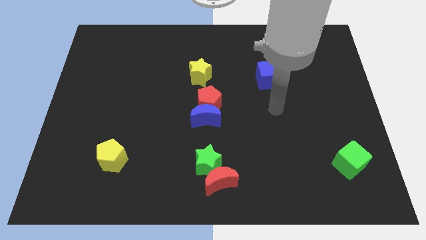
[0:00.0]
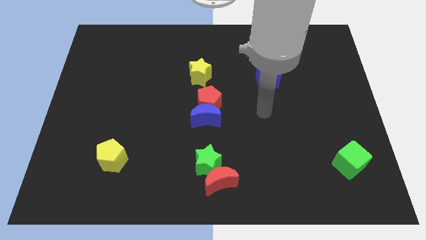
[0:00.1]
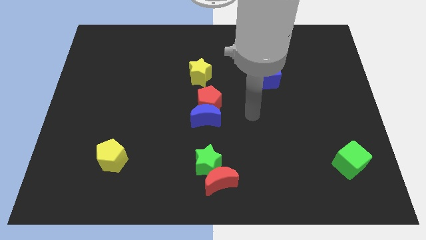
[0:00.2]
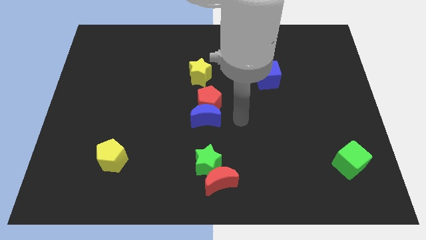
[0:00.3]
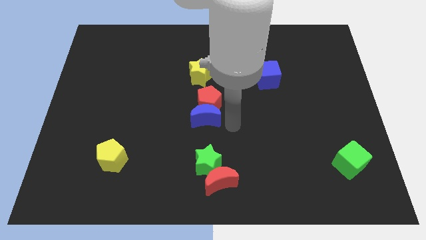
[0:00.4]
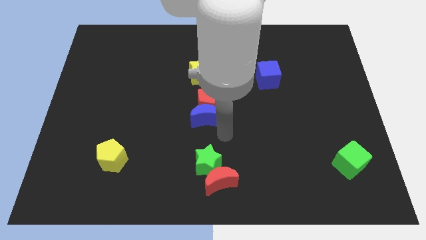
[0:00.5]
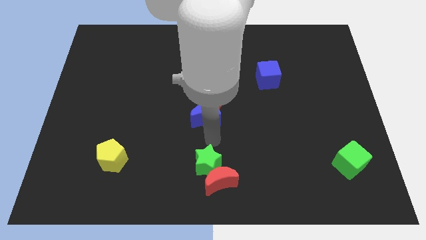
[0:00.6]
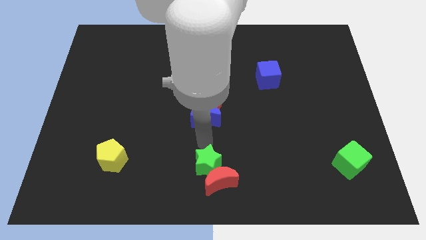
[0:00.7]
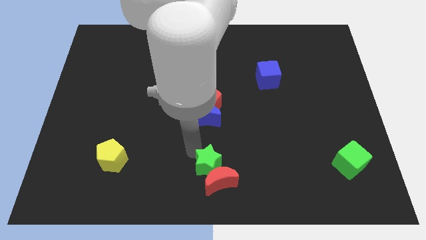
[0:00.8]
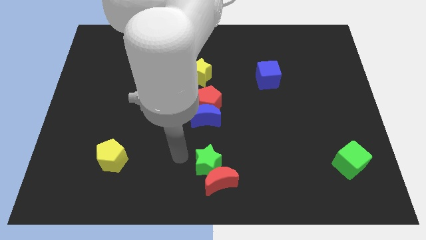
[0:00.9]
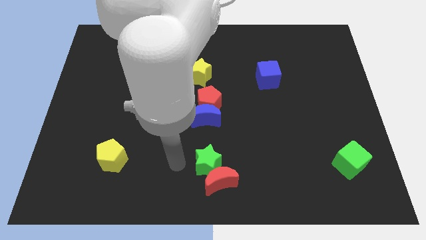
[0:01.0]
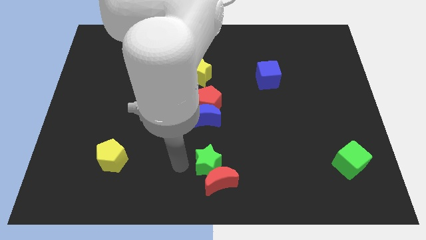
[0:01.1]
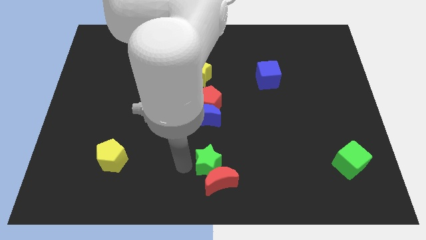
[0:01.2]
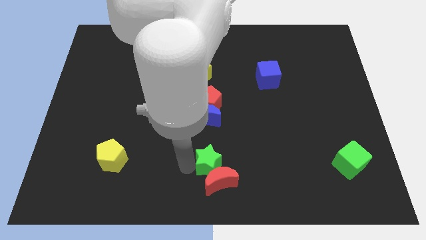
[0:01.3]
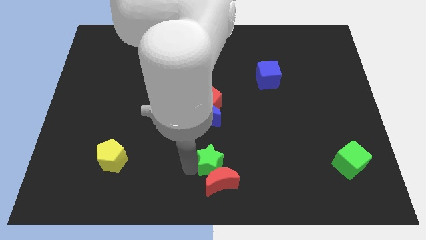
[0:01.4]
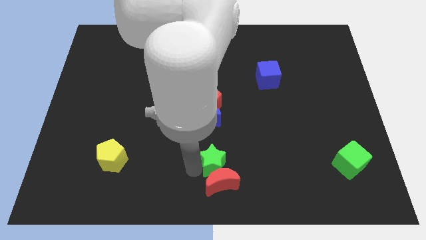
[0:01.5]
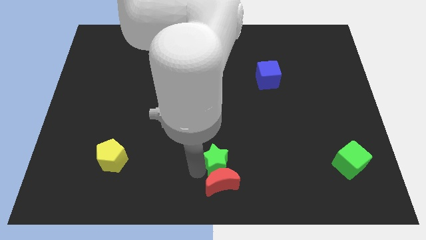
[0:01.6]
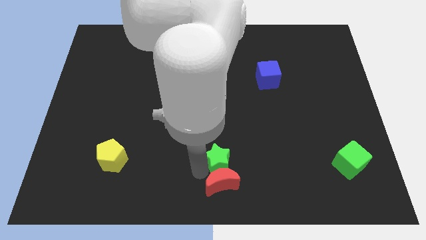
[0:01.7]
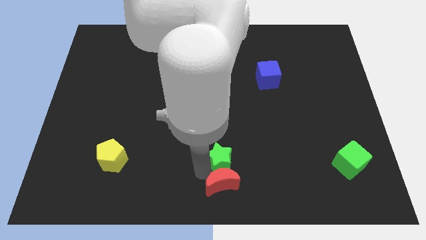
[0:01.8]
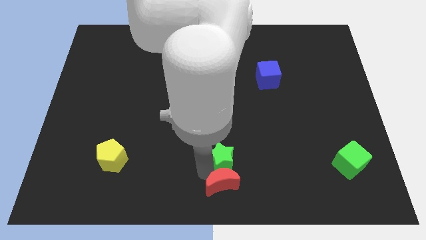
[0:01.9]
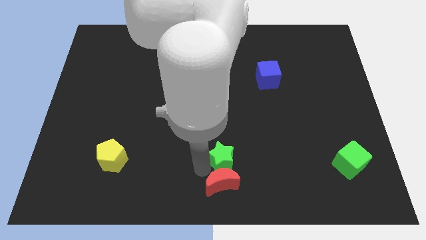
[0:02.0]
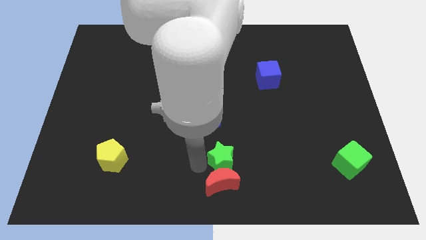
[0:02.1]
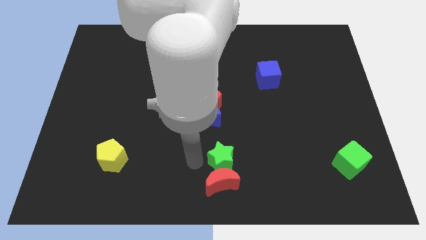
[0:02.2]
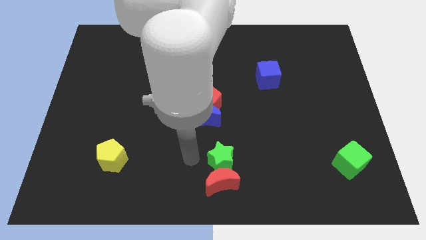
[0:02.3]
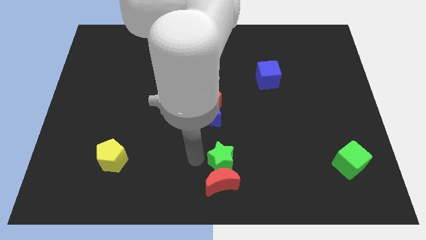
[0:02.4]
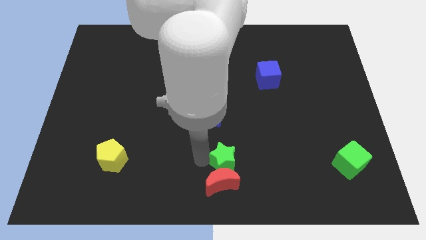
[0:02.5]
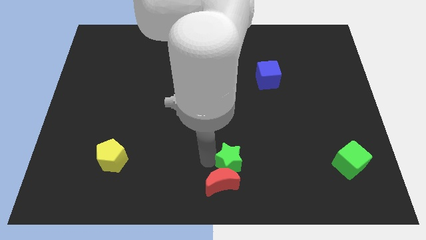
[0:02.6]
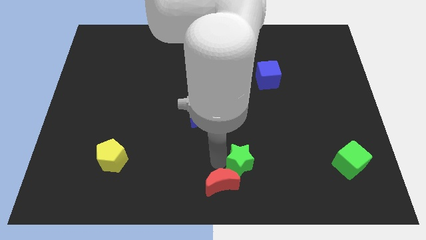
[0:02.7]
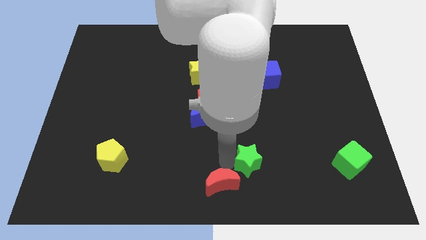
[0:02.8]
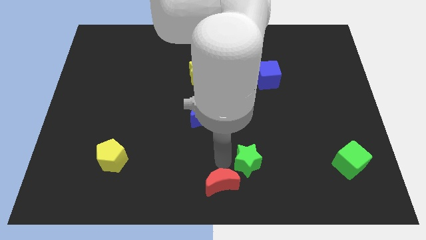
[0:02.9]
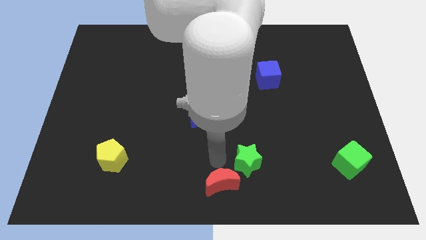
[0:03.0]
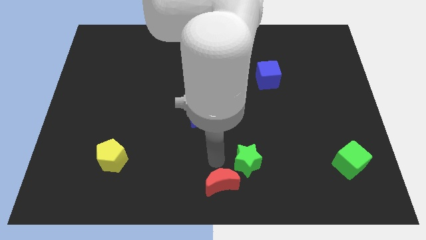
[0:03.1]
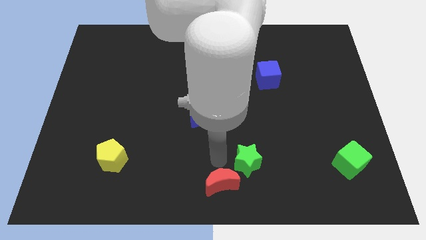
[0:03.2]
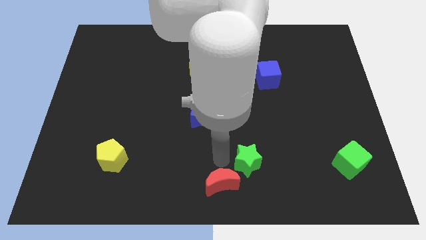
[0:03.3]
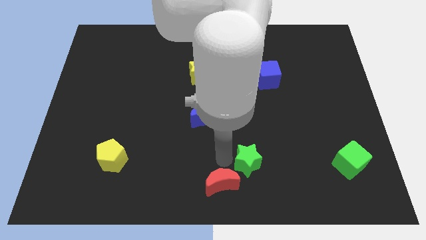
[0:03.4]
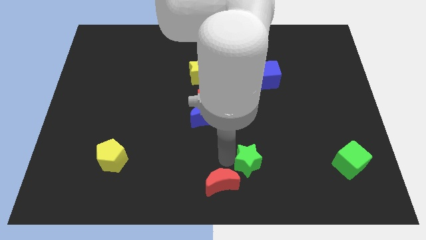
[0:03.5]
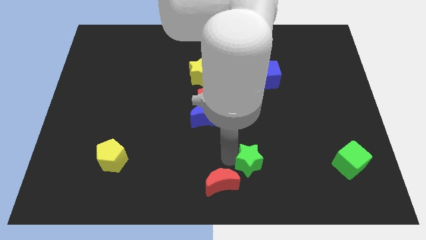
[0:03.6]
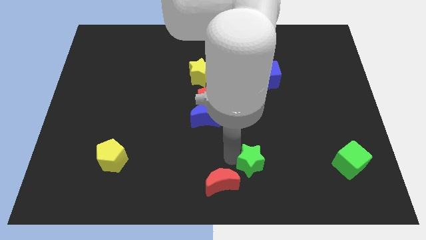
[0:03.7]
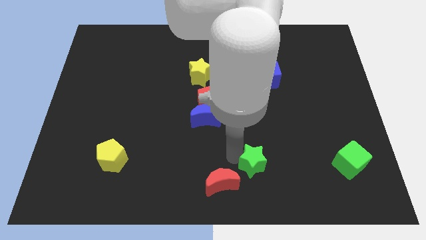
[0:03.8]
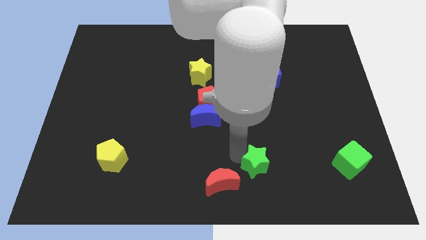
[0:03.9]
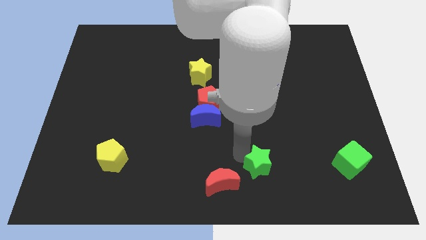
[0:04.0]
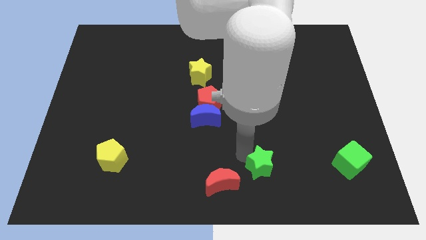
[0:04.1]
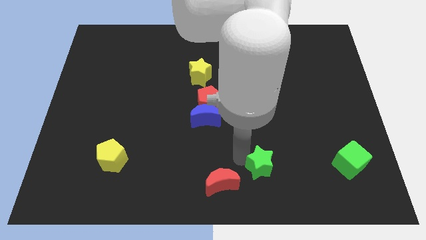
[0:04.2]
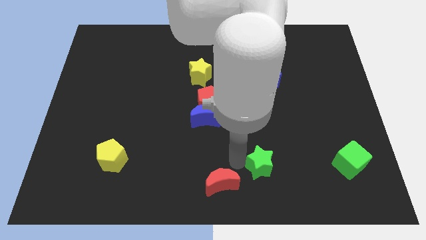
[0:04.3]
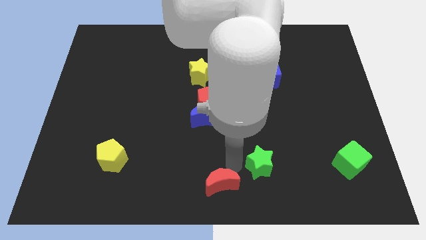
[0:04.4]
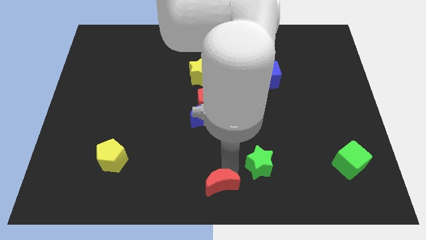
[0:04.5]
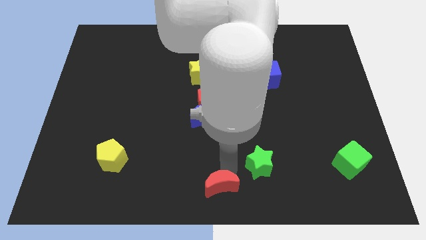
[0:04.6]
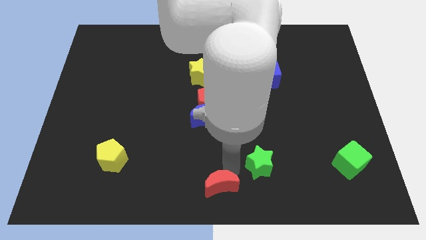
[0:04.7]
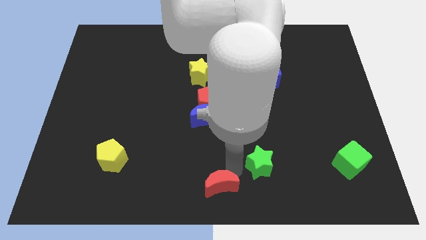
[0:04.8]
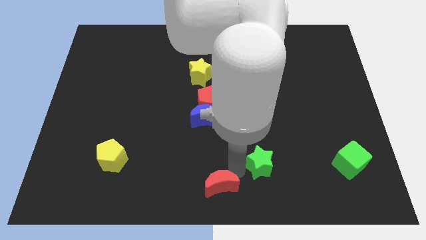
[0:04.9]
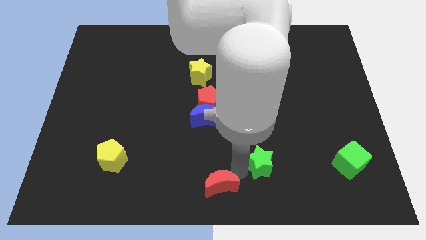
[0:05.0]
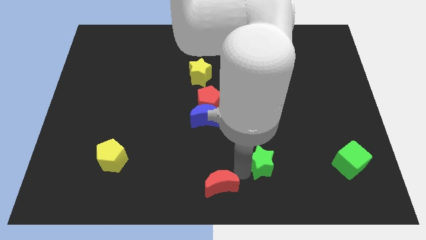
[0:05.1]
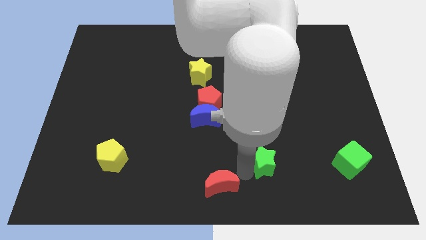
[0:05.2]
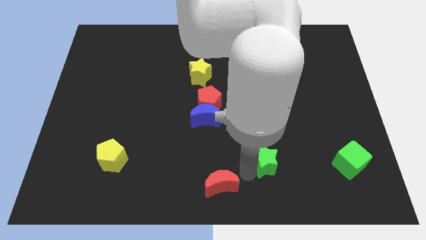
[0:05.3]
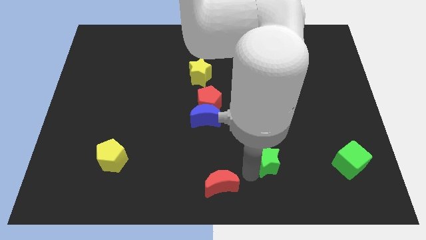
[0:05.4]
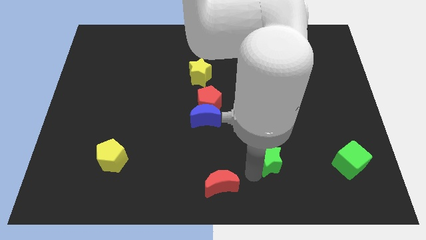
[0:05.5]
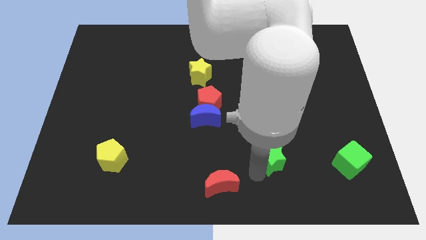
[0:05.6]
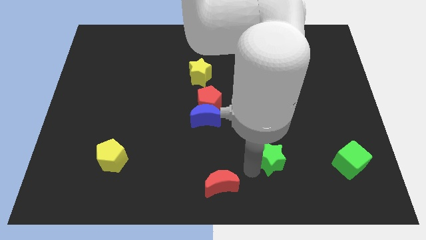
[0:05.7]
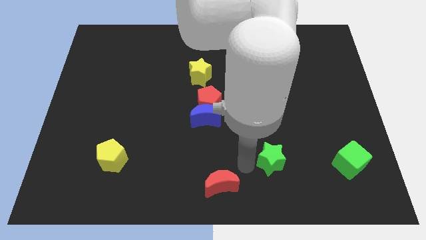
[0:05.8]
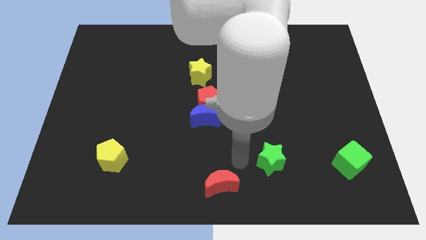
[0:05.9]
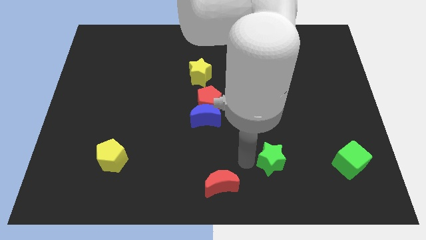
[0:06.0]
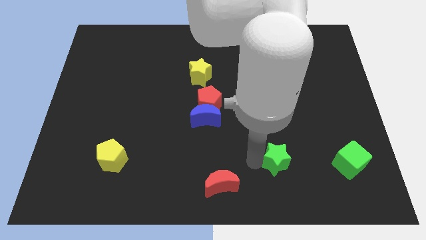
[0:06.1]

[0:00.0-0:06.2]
move the green star to the left of the green cube

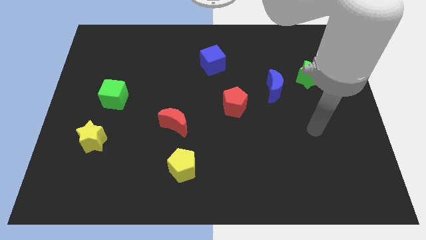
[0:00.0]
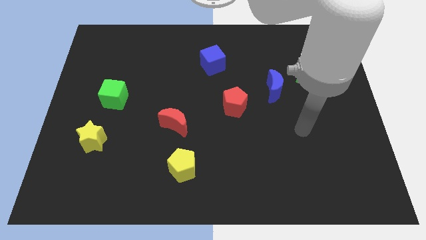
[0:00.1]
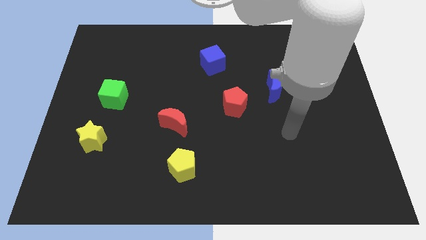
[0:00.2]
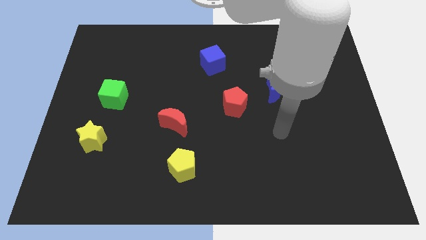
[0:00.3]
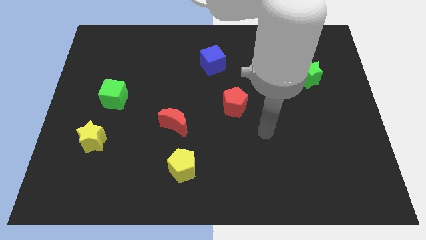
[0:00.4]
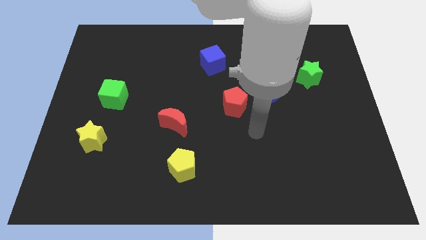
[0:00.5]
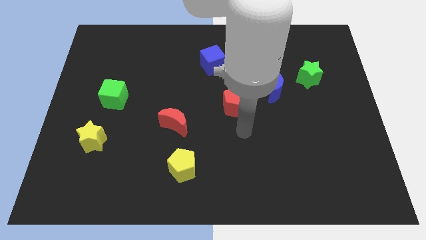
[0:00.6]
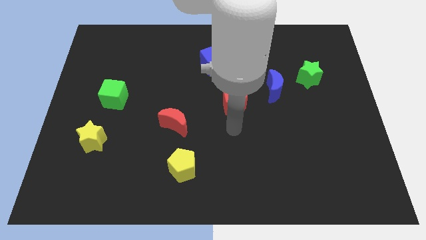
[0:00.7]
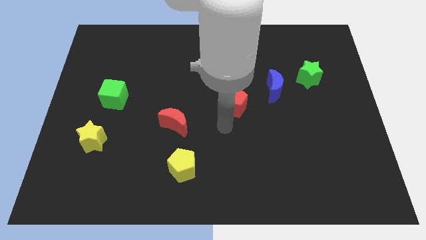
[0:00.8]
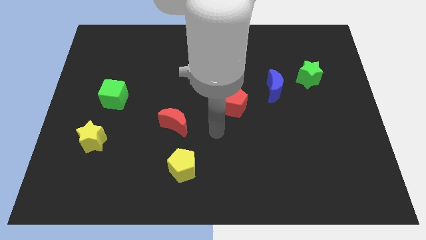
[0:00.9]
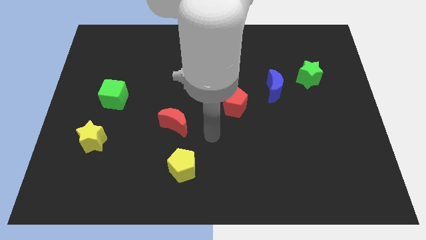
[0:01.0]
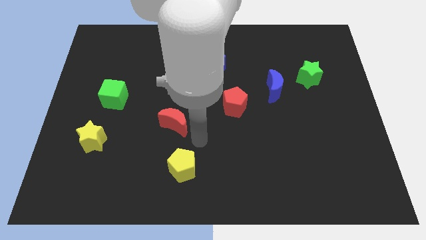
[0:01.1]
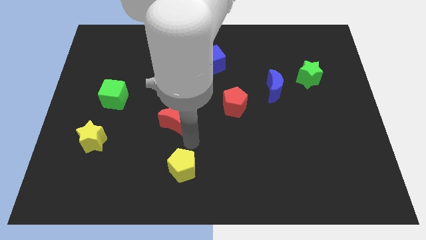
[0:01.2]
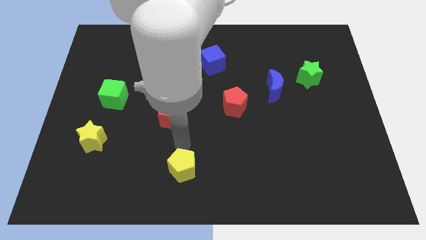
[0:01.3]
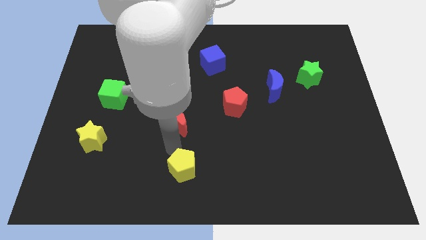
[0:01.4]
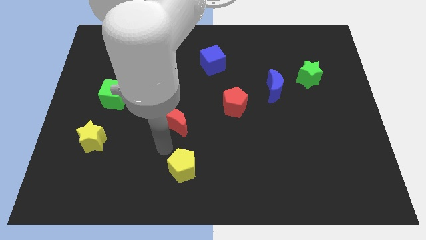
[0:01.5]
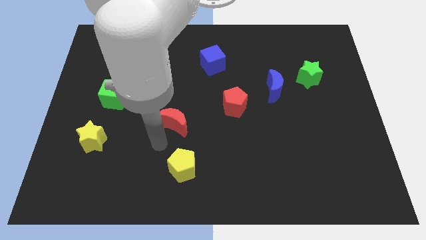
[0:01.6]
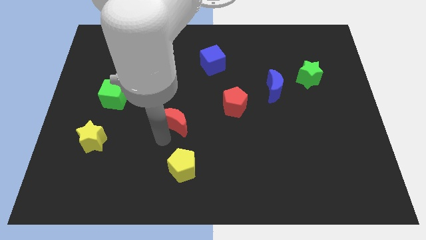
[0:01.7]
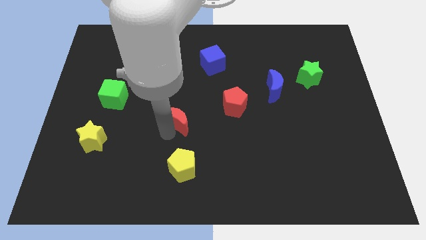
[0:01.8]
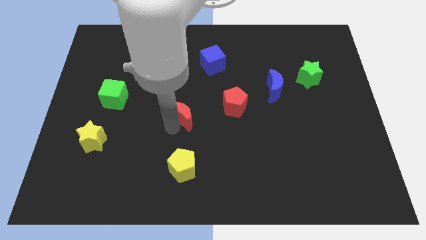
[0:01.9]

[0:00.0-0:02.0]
push the red moon just left of the red pentagon
